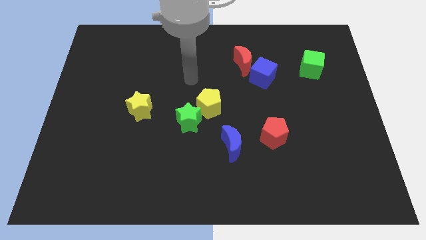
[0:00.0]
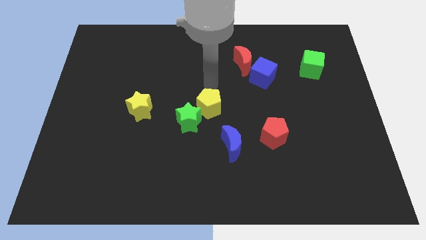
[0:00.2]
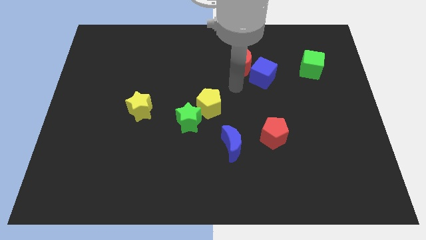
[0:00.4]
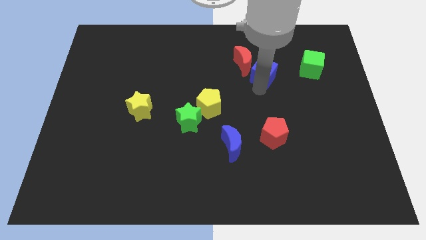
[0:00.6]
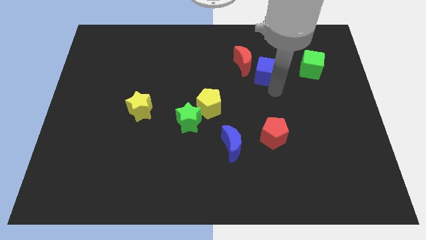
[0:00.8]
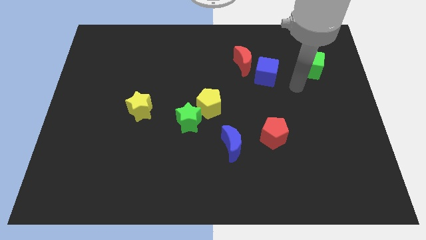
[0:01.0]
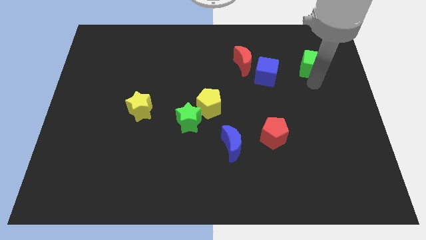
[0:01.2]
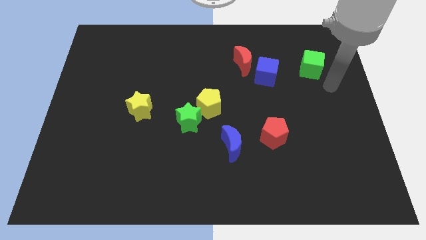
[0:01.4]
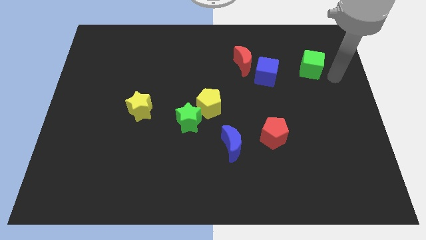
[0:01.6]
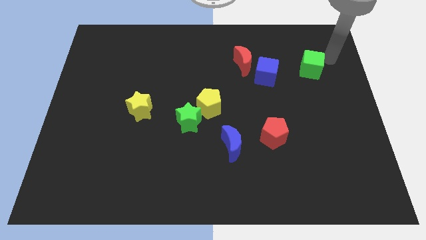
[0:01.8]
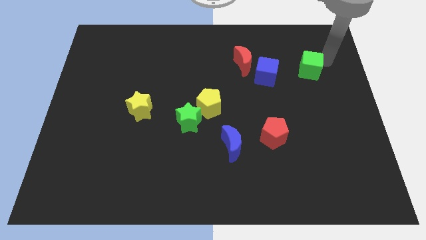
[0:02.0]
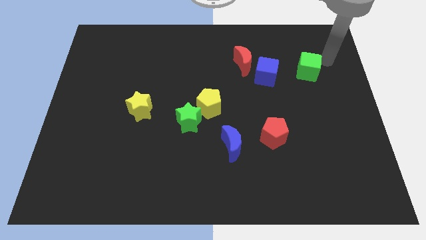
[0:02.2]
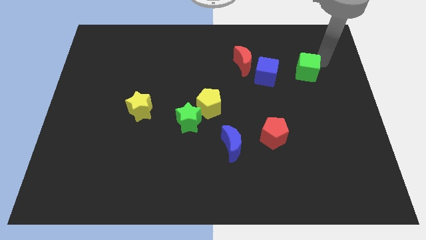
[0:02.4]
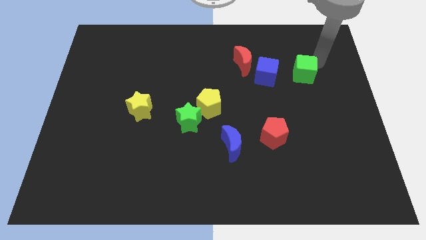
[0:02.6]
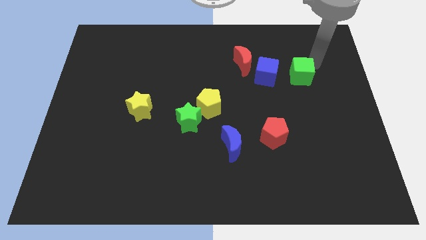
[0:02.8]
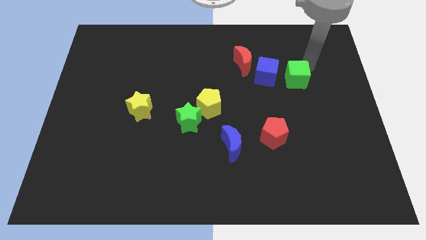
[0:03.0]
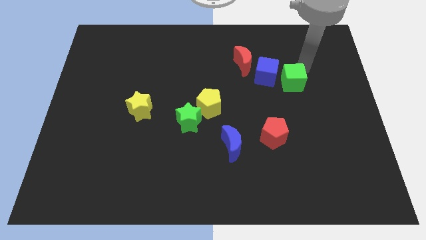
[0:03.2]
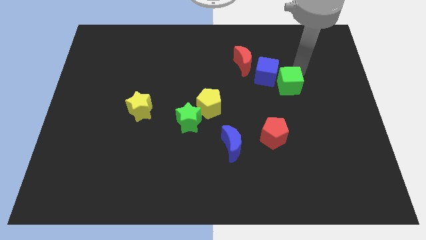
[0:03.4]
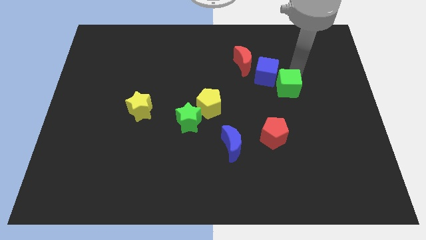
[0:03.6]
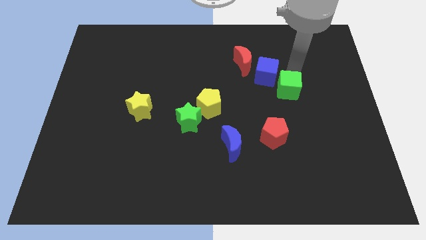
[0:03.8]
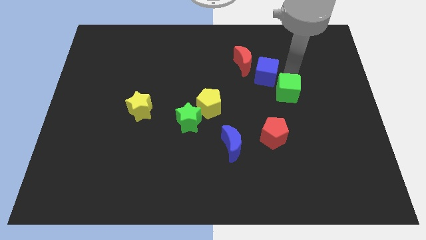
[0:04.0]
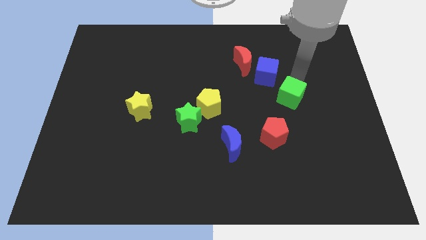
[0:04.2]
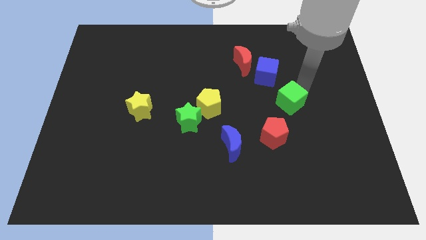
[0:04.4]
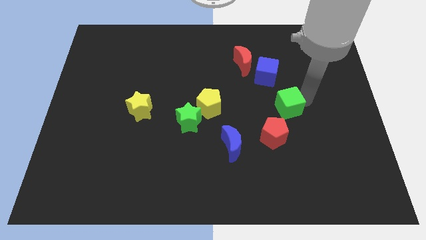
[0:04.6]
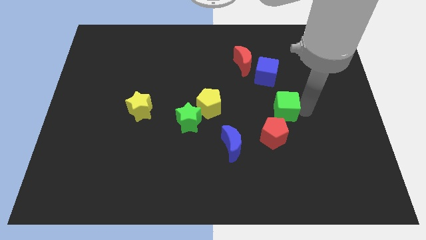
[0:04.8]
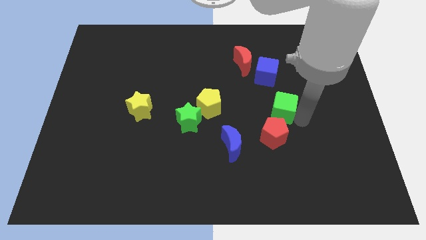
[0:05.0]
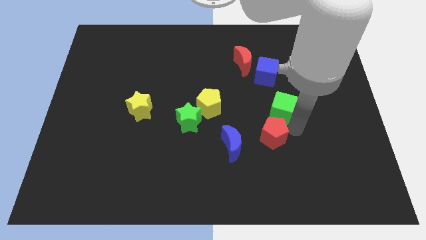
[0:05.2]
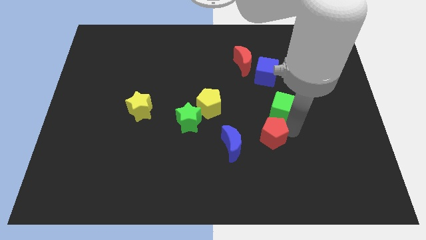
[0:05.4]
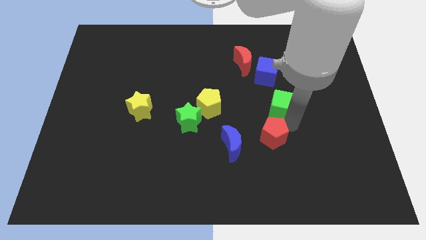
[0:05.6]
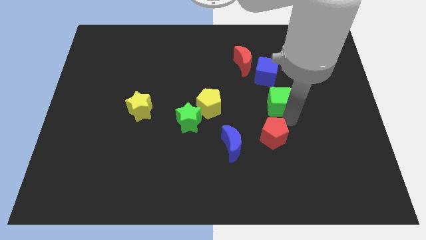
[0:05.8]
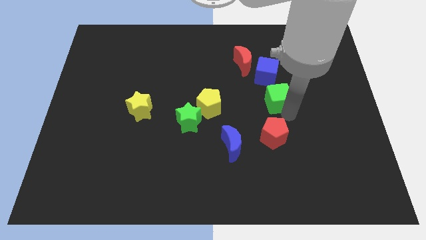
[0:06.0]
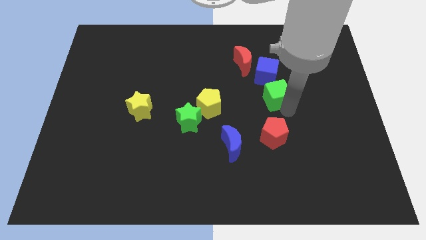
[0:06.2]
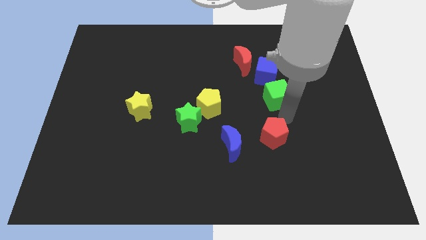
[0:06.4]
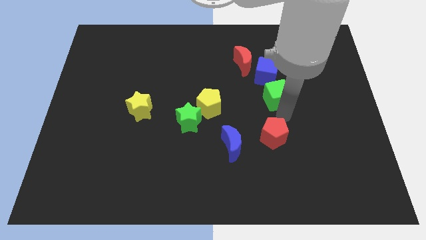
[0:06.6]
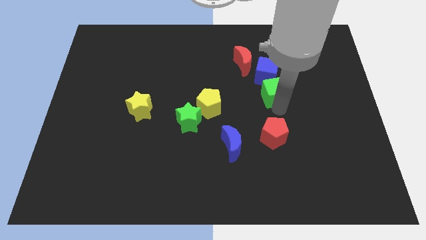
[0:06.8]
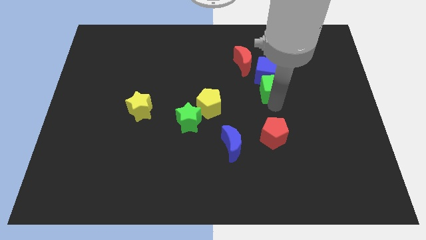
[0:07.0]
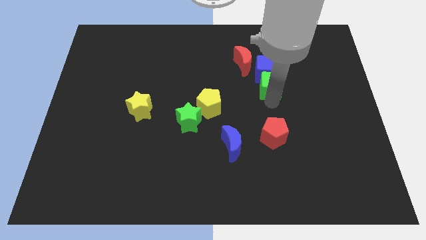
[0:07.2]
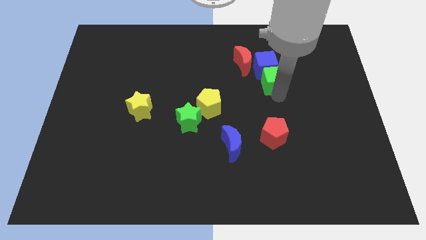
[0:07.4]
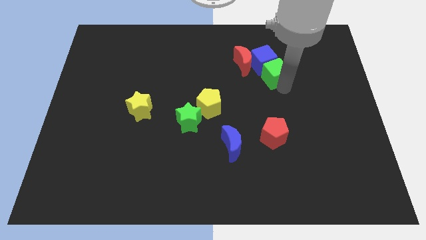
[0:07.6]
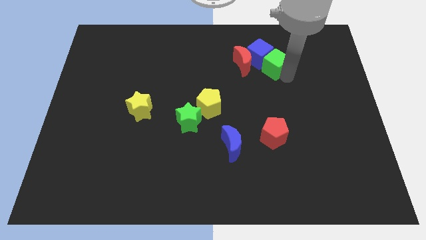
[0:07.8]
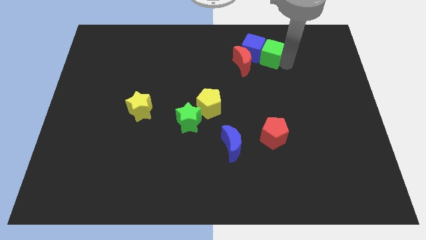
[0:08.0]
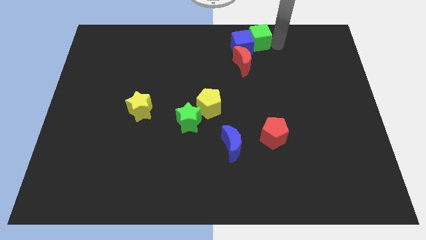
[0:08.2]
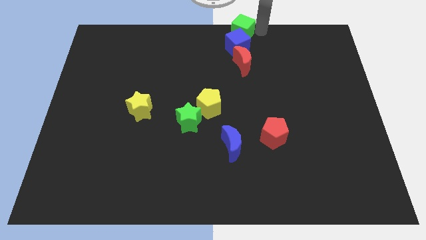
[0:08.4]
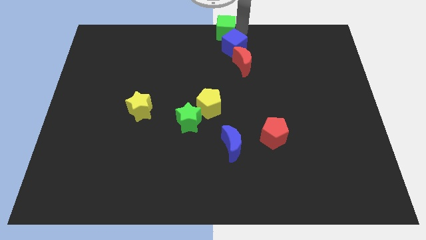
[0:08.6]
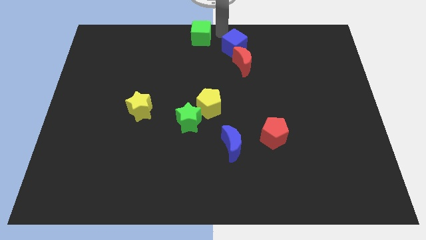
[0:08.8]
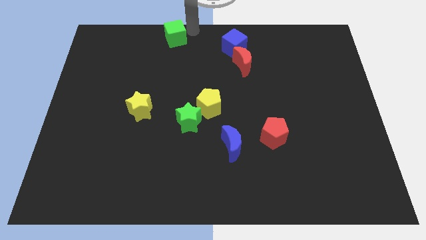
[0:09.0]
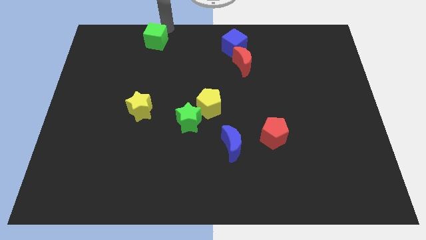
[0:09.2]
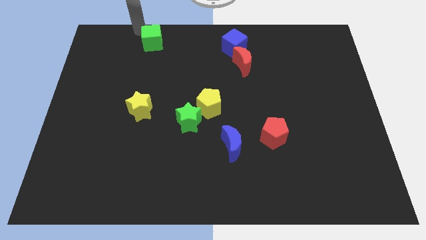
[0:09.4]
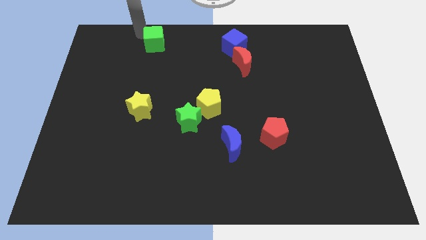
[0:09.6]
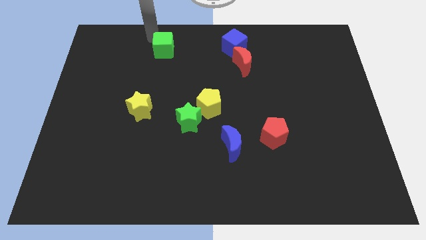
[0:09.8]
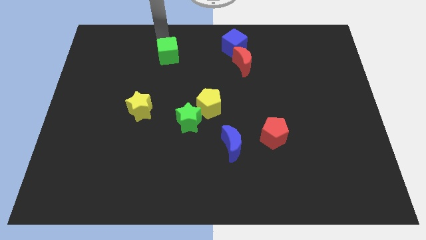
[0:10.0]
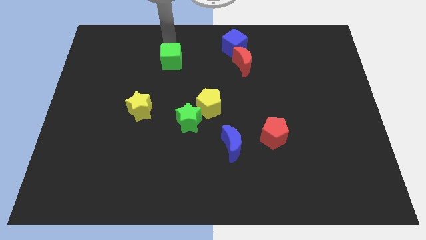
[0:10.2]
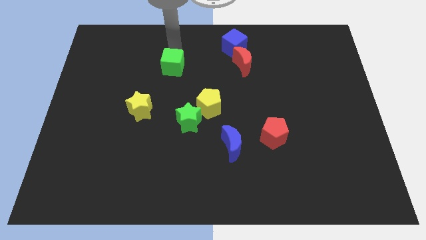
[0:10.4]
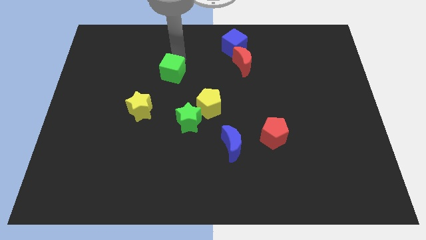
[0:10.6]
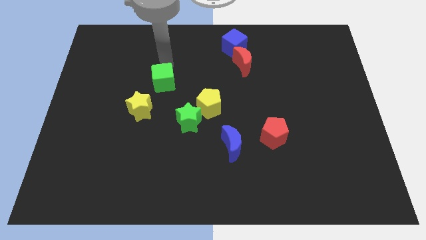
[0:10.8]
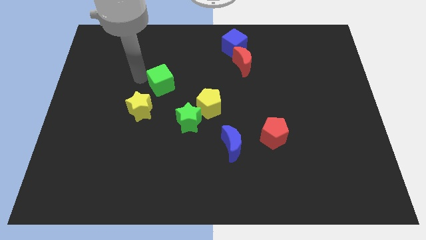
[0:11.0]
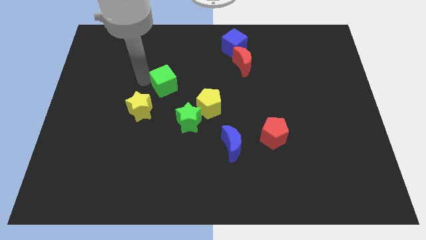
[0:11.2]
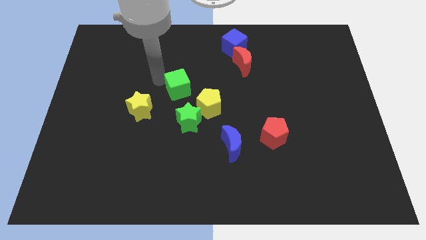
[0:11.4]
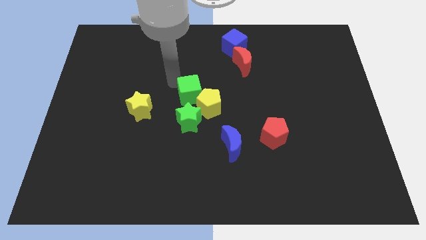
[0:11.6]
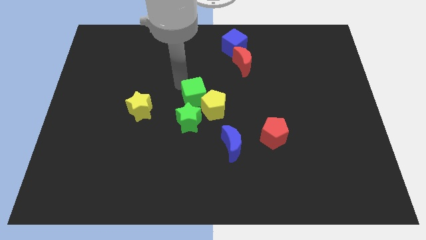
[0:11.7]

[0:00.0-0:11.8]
move the green cube towards the yellow pentagon

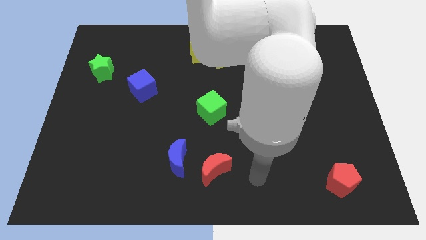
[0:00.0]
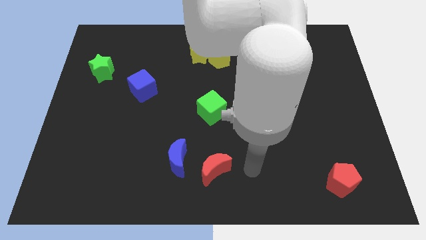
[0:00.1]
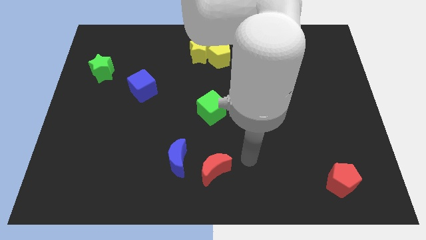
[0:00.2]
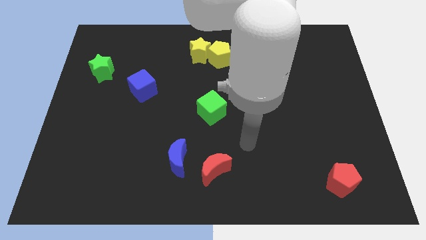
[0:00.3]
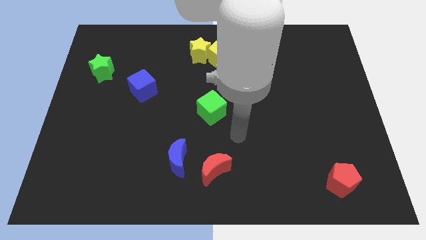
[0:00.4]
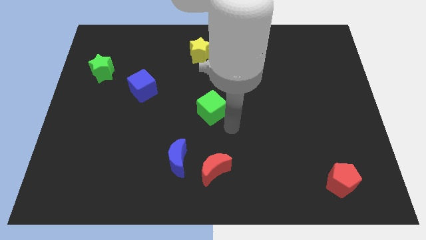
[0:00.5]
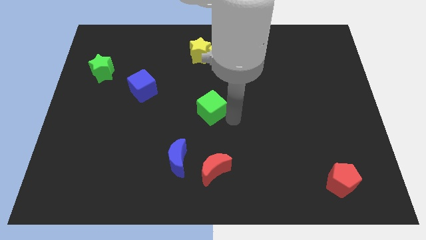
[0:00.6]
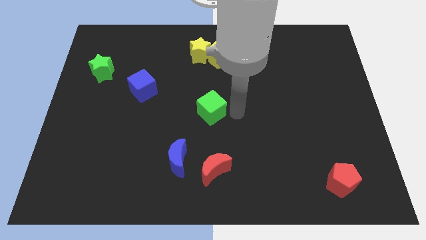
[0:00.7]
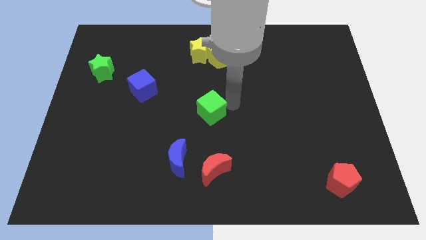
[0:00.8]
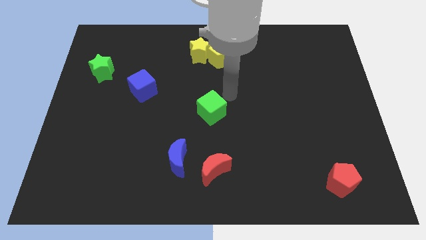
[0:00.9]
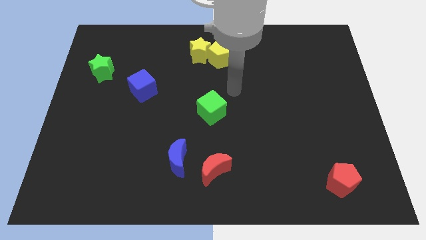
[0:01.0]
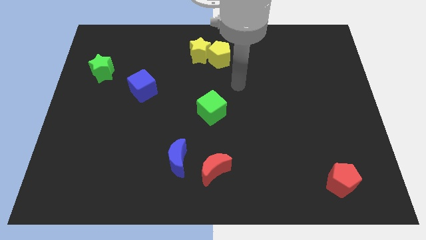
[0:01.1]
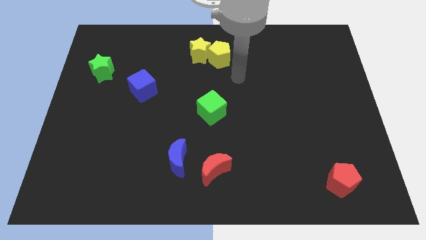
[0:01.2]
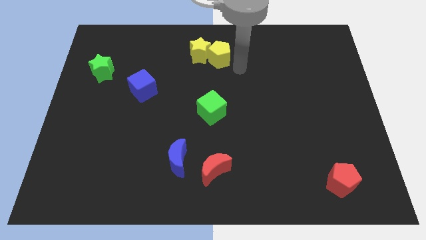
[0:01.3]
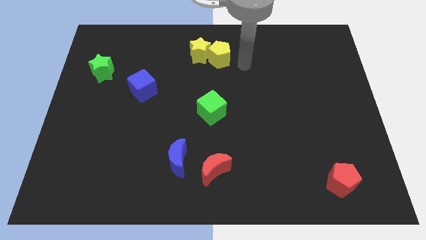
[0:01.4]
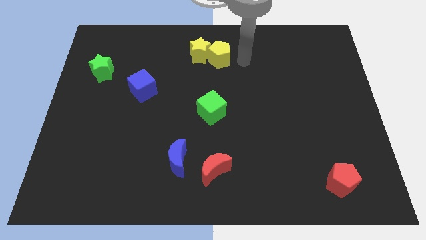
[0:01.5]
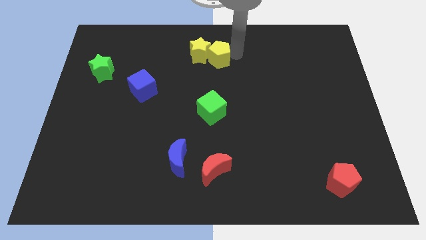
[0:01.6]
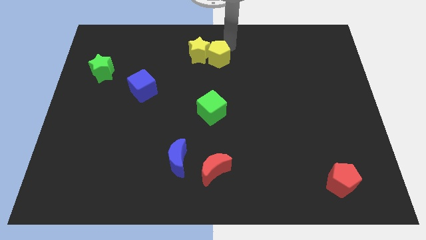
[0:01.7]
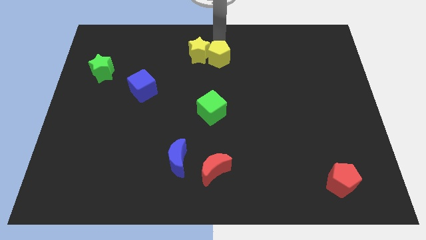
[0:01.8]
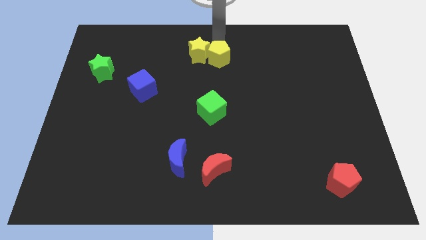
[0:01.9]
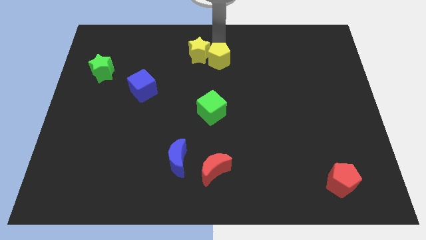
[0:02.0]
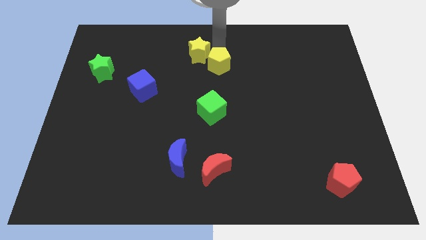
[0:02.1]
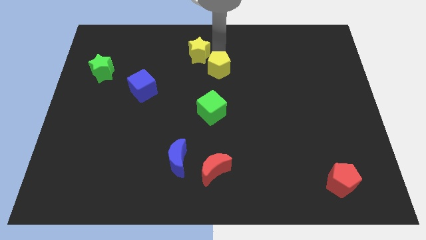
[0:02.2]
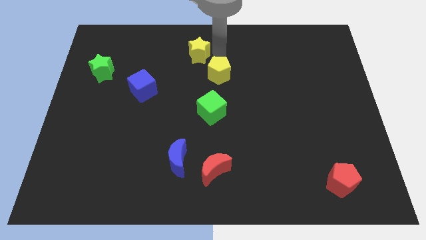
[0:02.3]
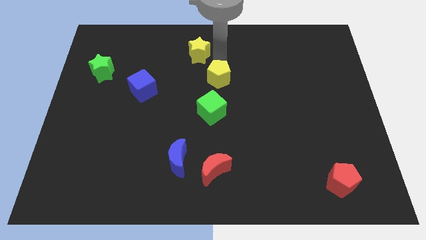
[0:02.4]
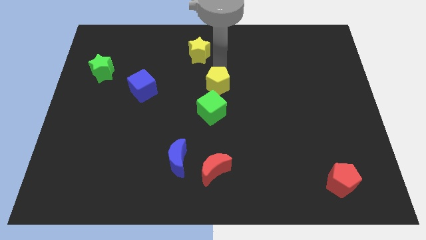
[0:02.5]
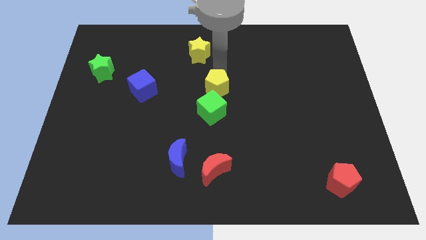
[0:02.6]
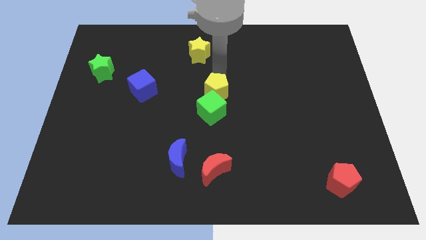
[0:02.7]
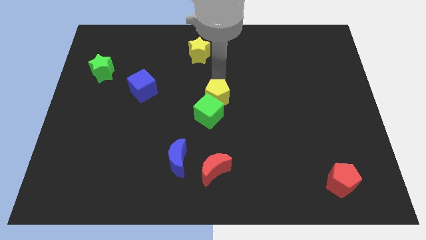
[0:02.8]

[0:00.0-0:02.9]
move the yellow pentagon to the green cube
